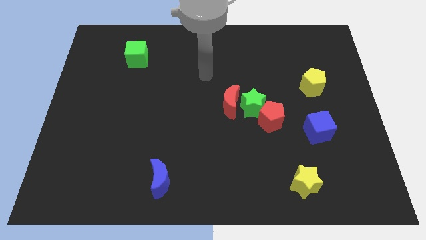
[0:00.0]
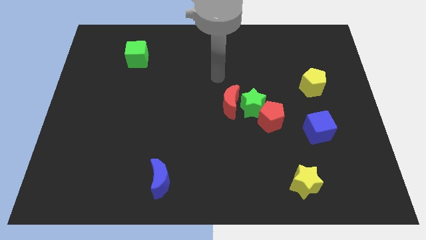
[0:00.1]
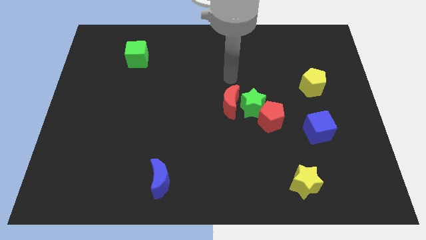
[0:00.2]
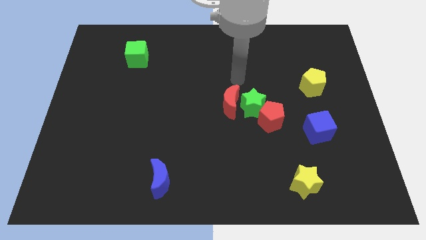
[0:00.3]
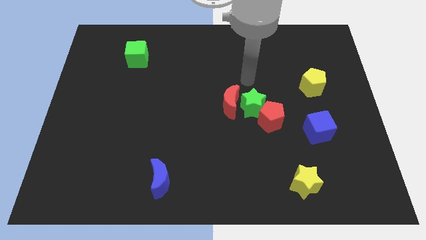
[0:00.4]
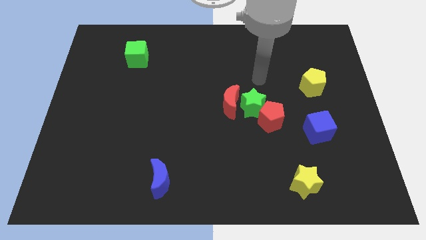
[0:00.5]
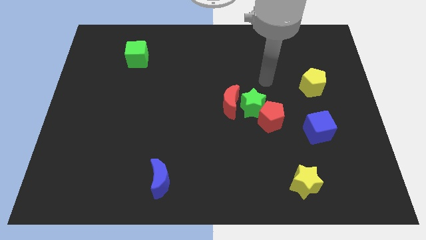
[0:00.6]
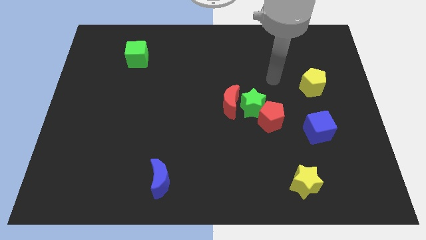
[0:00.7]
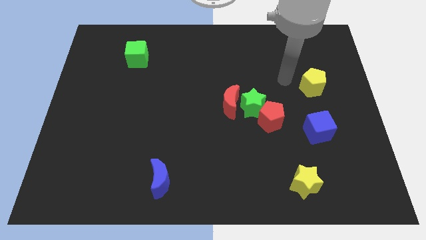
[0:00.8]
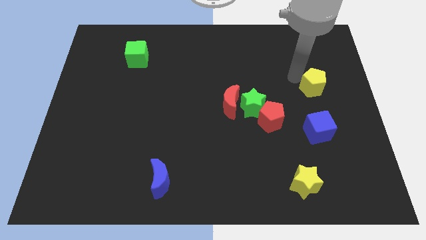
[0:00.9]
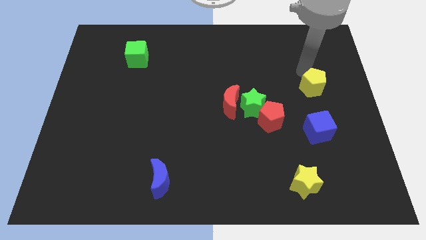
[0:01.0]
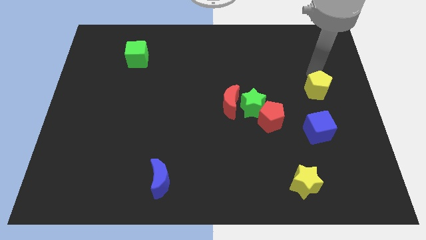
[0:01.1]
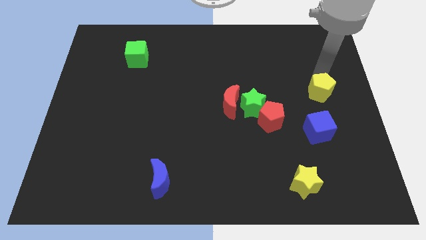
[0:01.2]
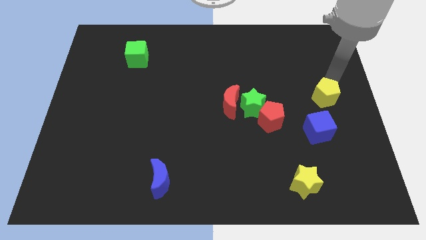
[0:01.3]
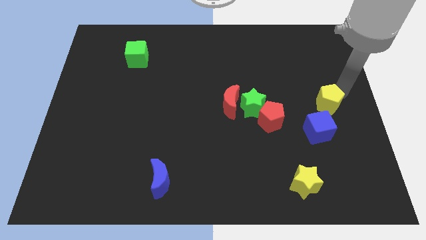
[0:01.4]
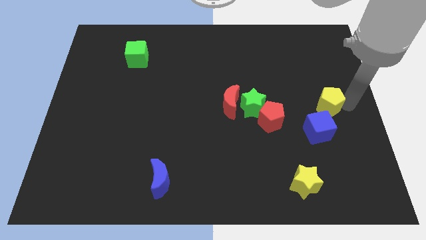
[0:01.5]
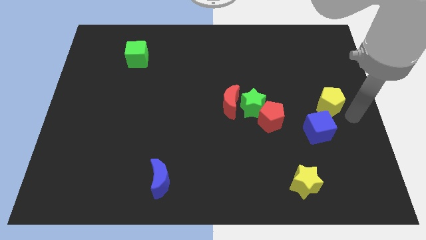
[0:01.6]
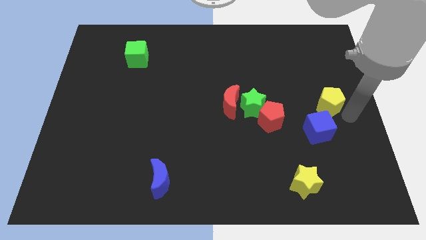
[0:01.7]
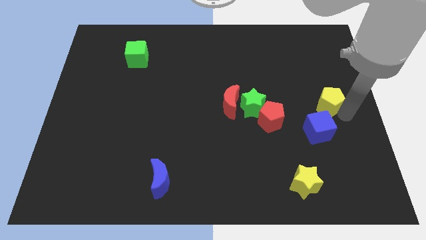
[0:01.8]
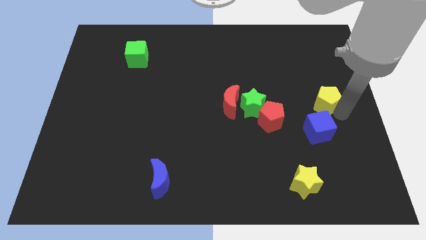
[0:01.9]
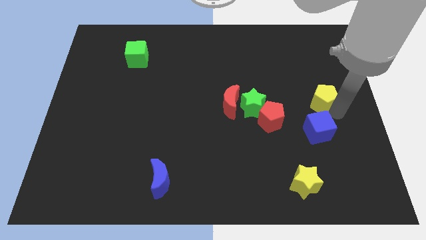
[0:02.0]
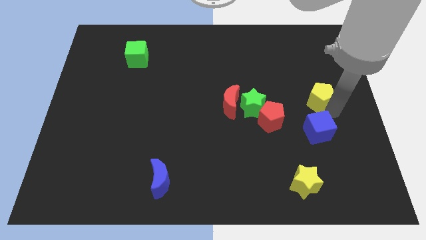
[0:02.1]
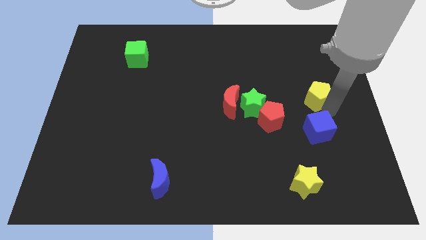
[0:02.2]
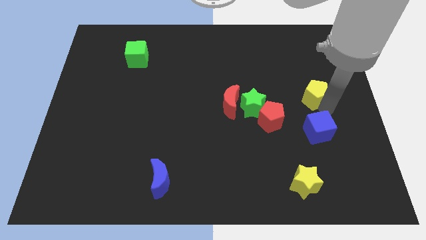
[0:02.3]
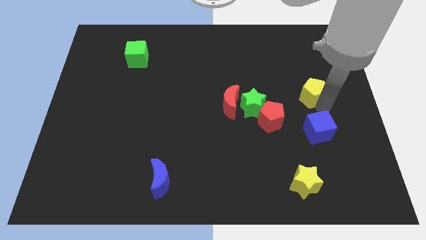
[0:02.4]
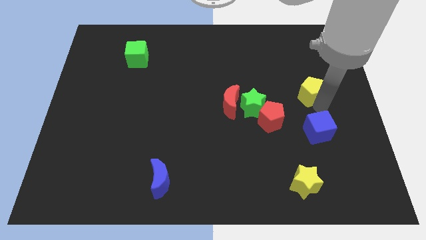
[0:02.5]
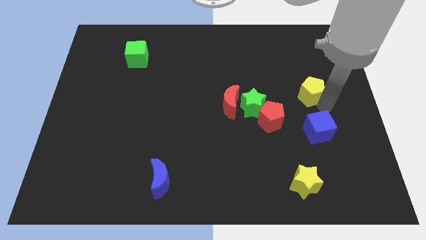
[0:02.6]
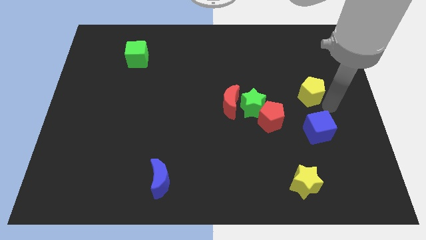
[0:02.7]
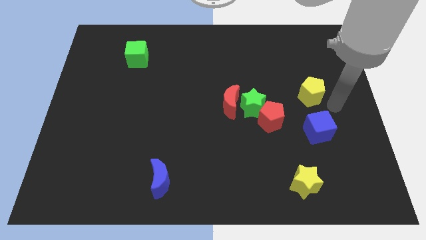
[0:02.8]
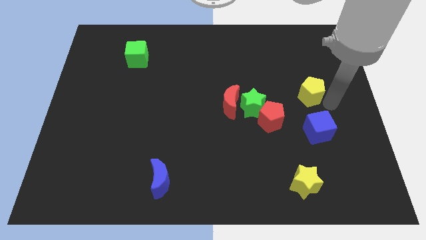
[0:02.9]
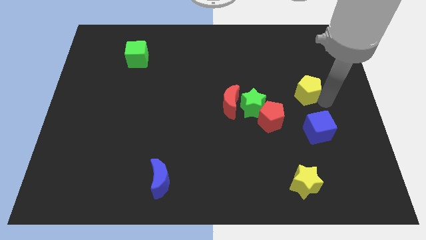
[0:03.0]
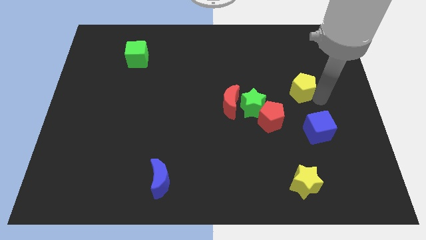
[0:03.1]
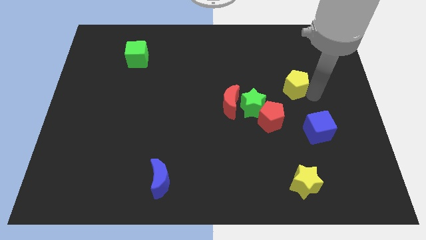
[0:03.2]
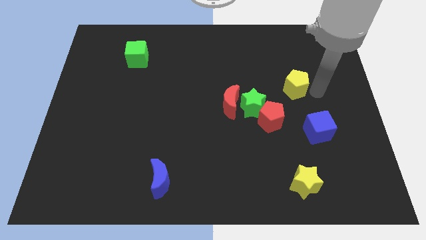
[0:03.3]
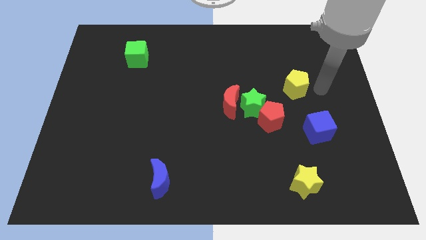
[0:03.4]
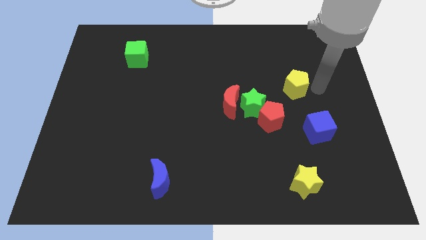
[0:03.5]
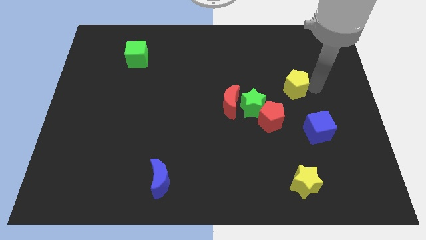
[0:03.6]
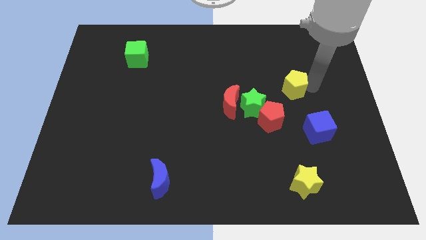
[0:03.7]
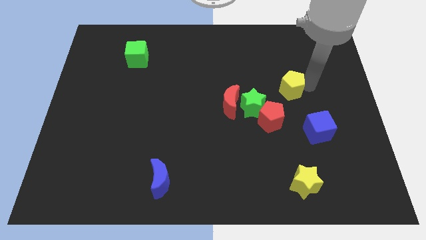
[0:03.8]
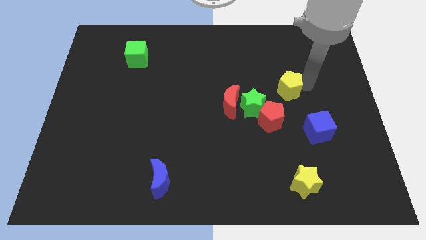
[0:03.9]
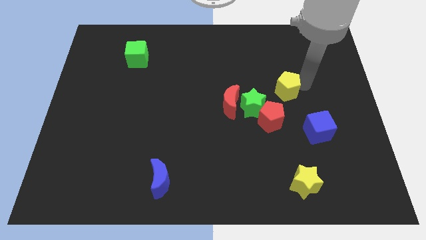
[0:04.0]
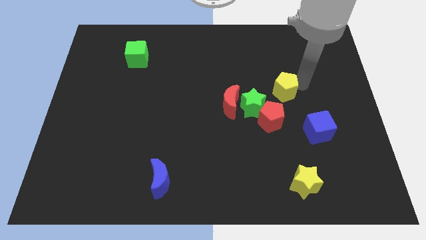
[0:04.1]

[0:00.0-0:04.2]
slightly push the yellow pentagon left

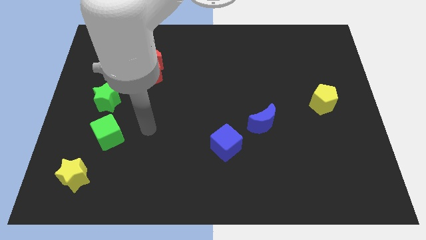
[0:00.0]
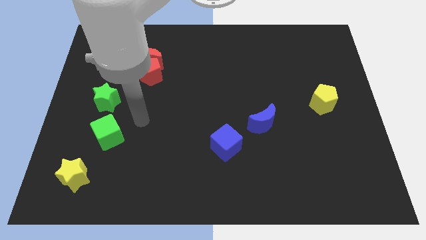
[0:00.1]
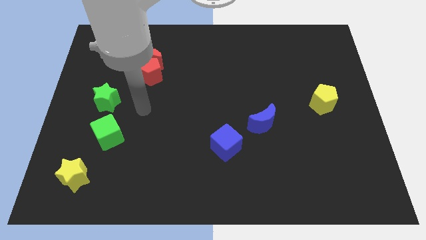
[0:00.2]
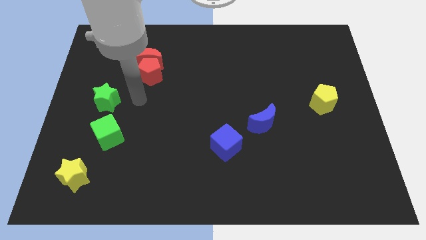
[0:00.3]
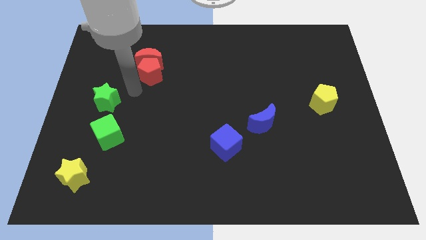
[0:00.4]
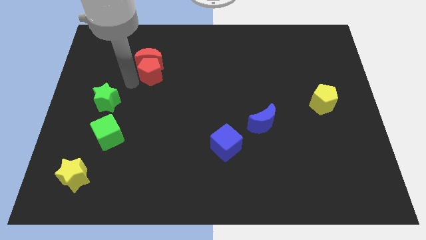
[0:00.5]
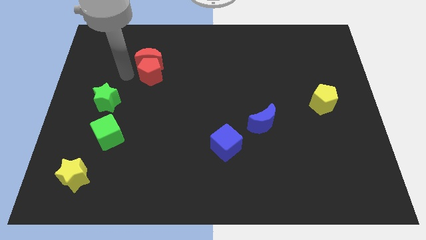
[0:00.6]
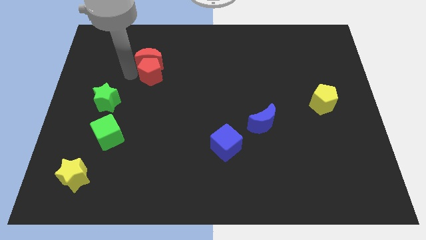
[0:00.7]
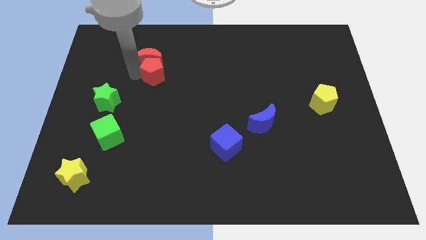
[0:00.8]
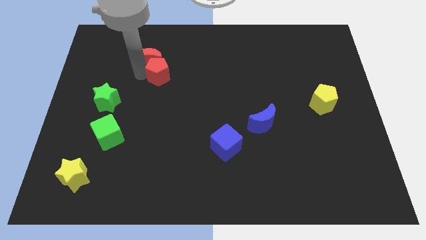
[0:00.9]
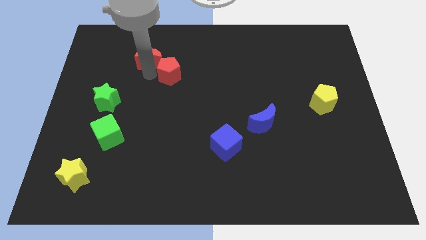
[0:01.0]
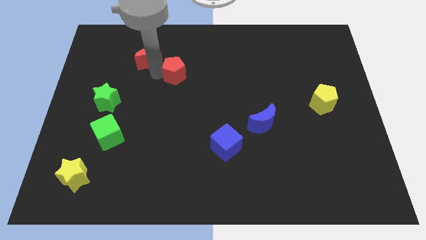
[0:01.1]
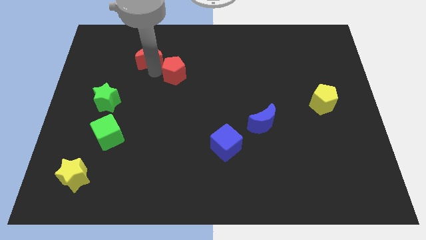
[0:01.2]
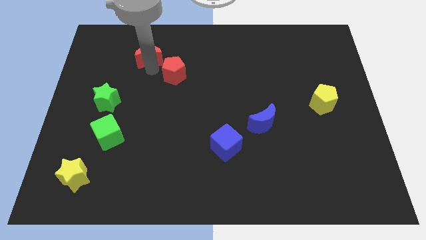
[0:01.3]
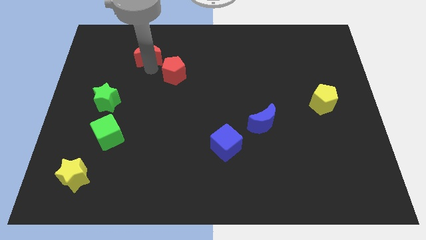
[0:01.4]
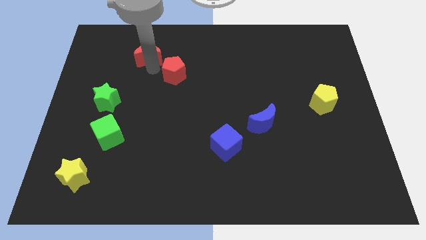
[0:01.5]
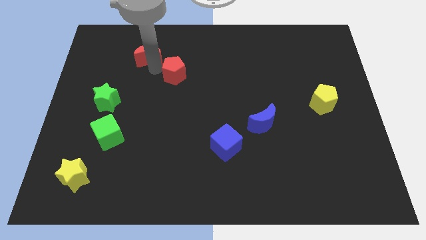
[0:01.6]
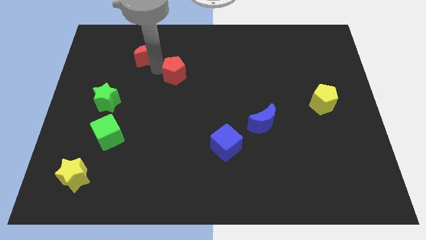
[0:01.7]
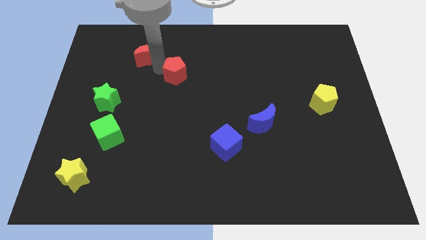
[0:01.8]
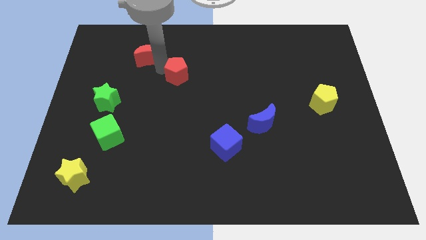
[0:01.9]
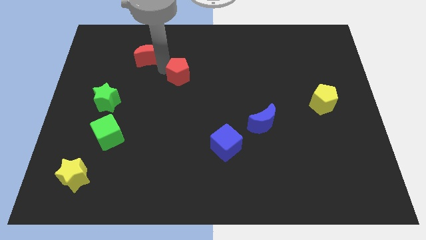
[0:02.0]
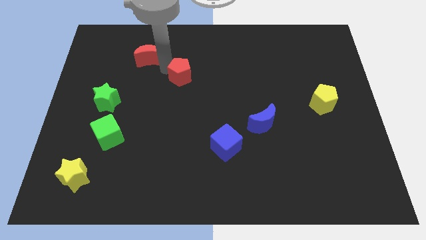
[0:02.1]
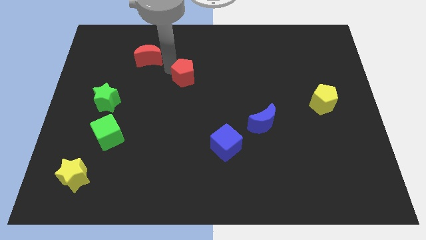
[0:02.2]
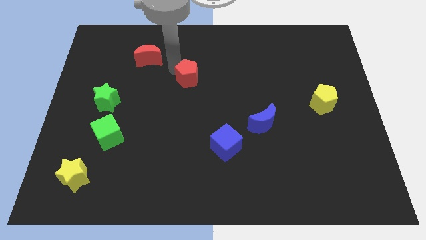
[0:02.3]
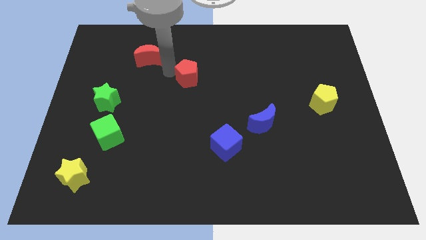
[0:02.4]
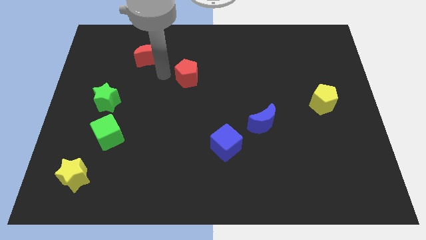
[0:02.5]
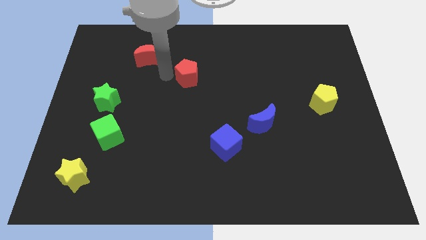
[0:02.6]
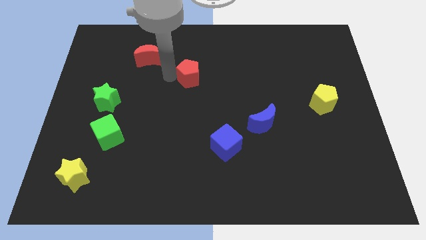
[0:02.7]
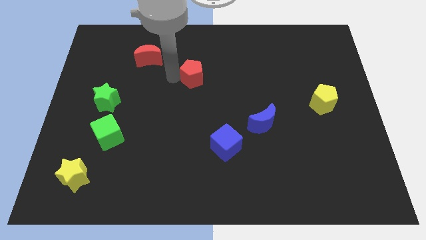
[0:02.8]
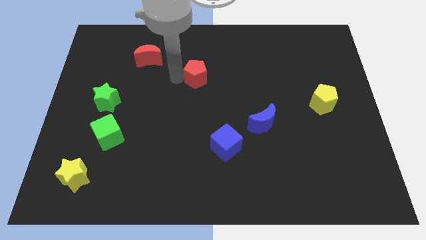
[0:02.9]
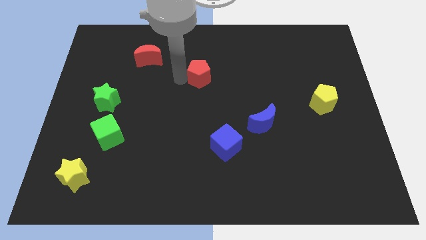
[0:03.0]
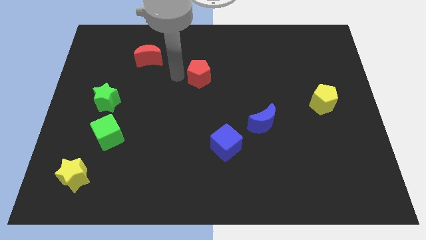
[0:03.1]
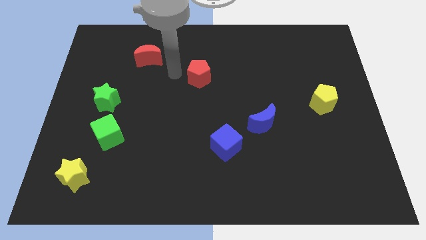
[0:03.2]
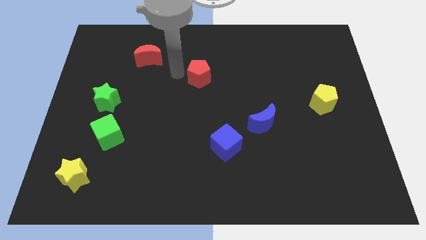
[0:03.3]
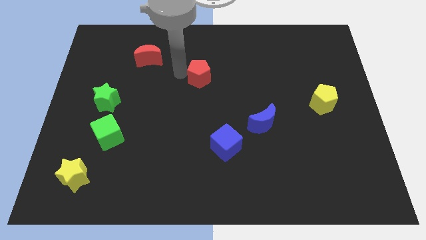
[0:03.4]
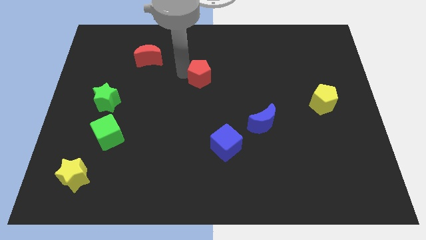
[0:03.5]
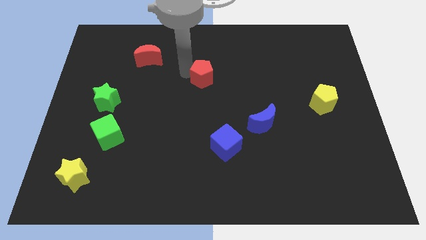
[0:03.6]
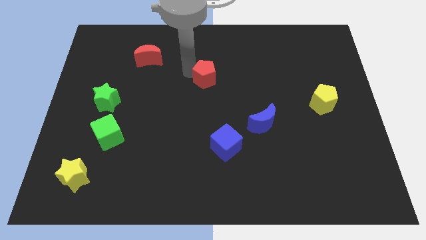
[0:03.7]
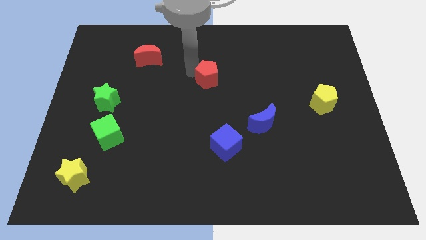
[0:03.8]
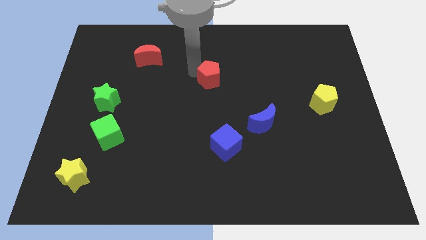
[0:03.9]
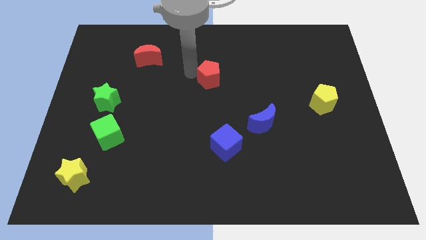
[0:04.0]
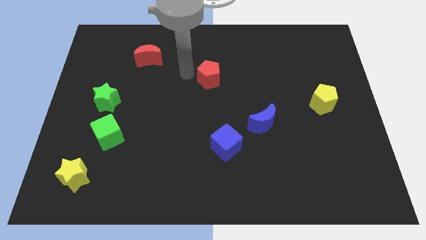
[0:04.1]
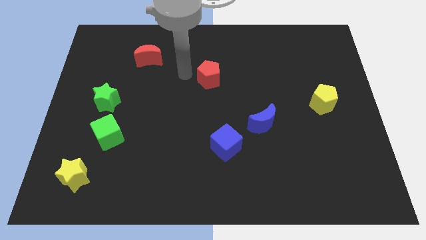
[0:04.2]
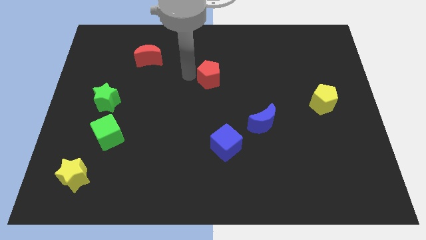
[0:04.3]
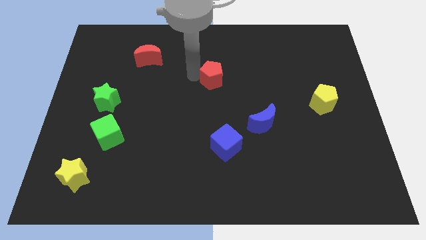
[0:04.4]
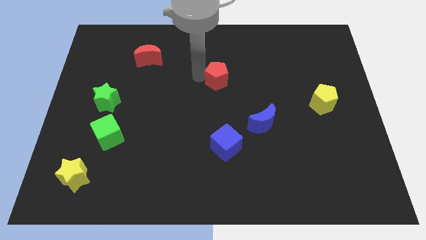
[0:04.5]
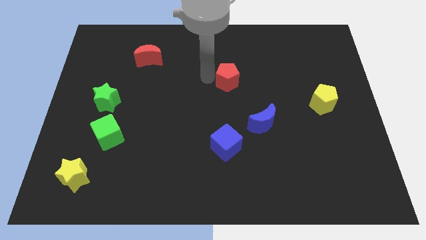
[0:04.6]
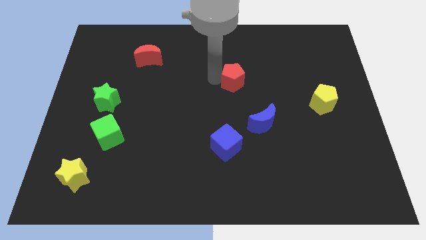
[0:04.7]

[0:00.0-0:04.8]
slide the red pentagon right
